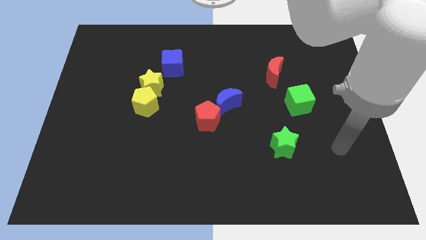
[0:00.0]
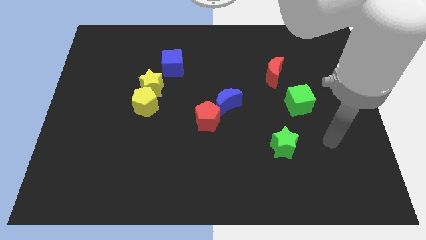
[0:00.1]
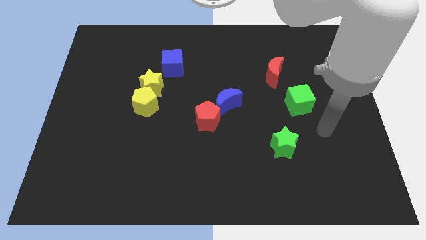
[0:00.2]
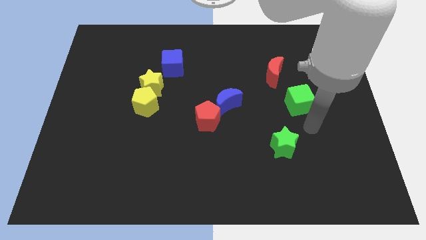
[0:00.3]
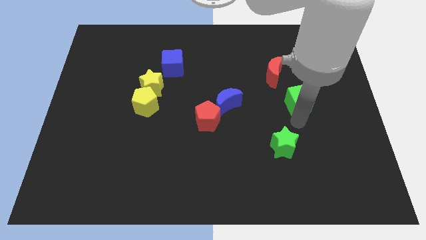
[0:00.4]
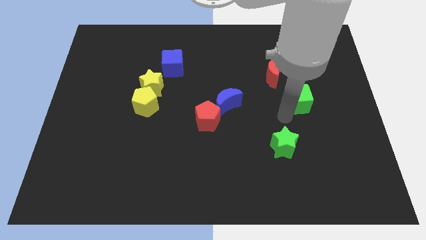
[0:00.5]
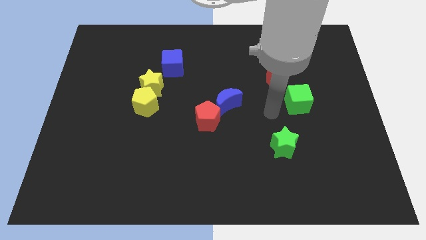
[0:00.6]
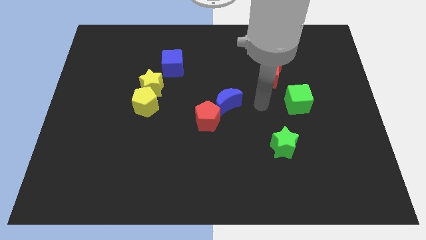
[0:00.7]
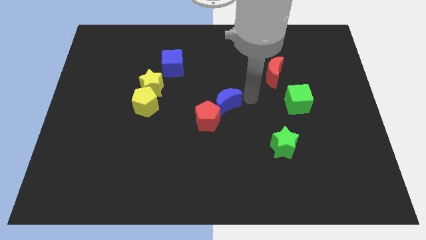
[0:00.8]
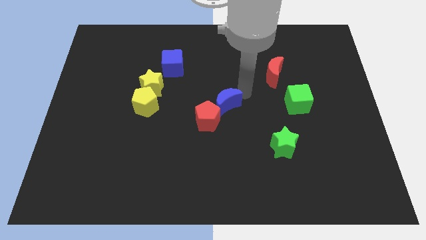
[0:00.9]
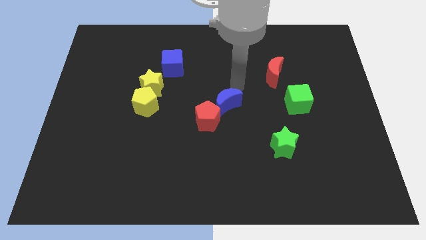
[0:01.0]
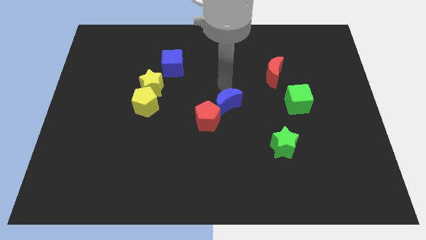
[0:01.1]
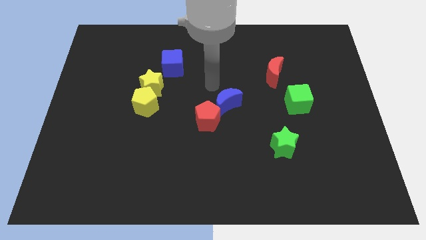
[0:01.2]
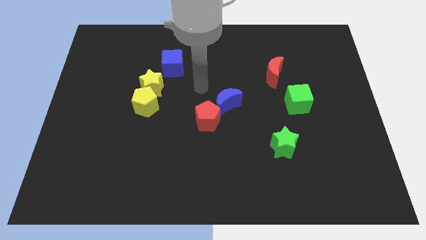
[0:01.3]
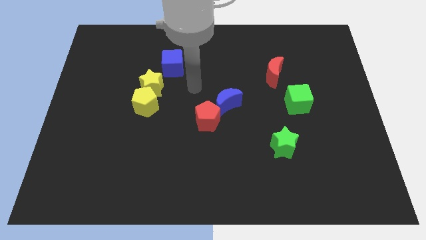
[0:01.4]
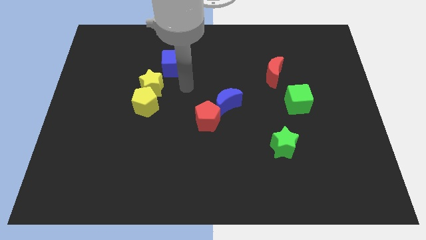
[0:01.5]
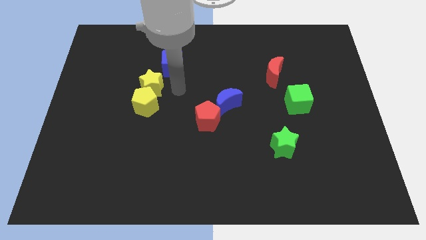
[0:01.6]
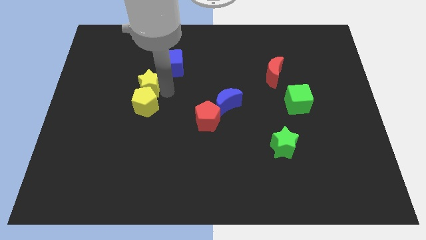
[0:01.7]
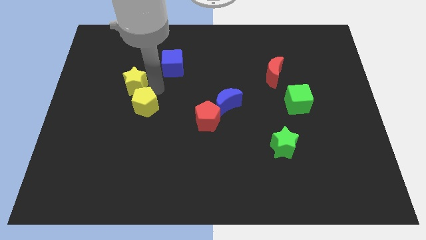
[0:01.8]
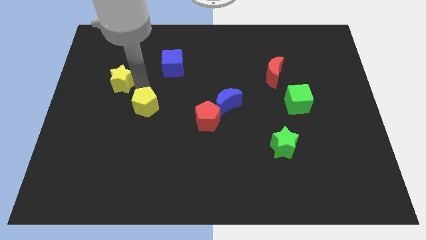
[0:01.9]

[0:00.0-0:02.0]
move the yellow pentagon away from the yellow star

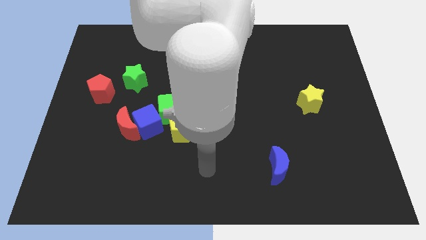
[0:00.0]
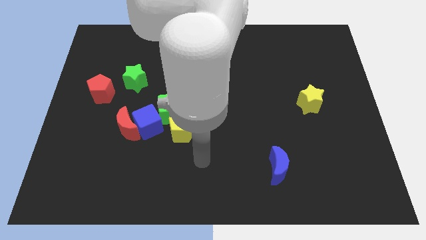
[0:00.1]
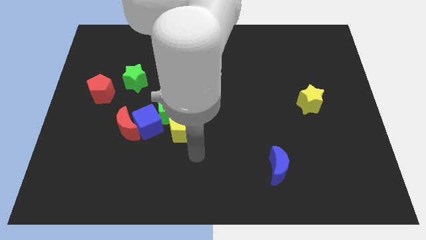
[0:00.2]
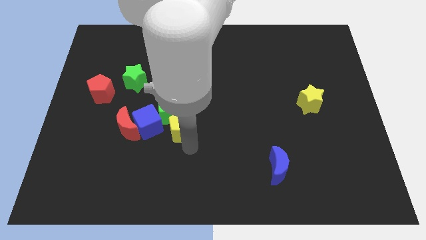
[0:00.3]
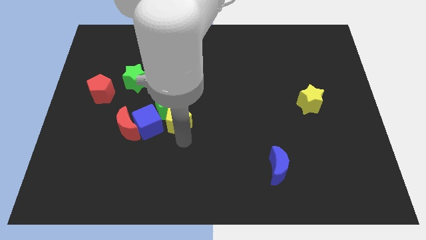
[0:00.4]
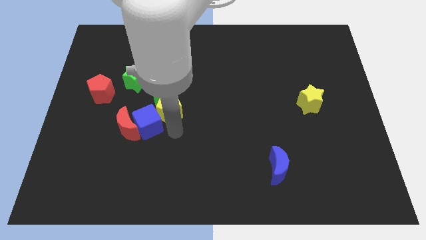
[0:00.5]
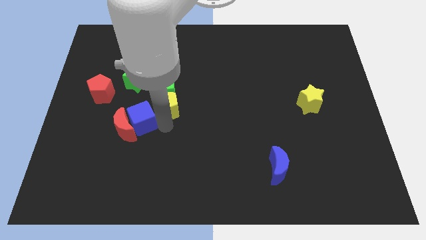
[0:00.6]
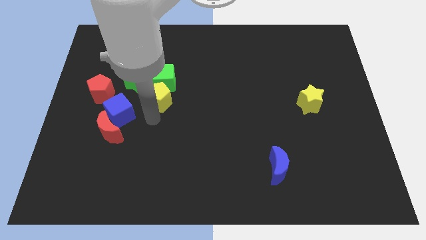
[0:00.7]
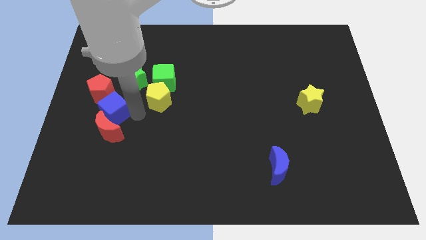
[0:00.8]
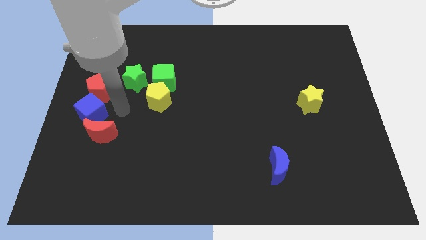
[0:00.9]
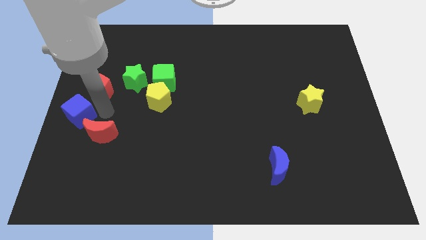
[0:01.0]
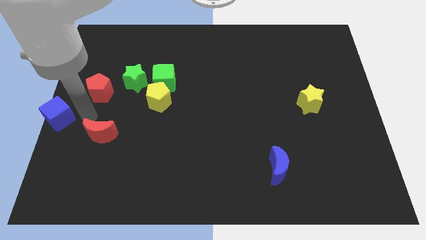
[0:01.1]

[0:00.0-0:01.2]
pull the red moon apart from the blue cube

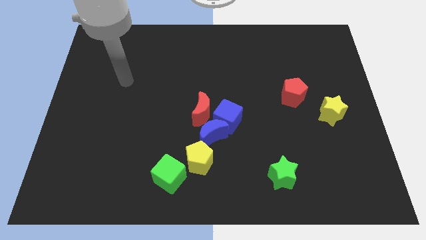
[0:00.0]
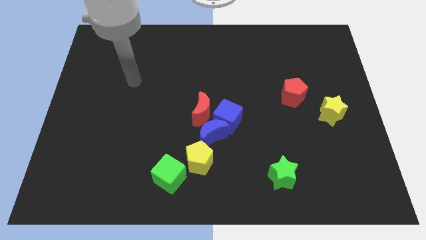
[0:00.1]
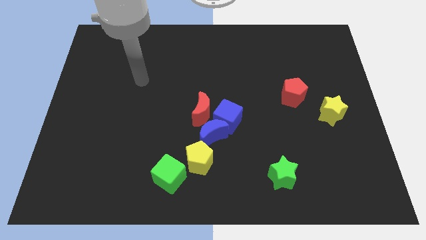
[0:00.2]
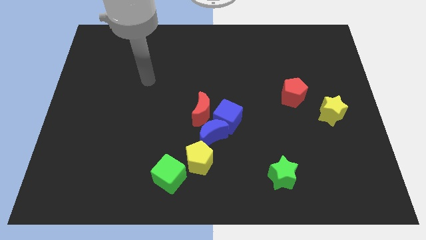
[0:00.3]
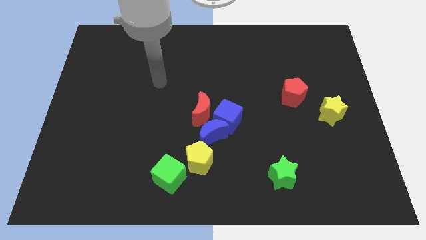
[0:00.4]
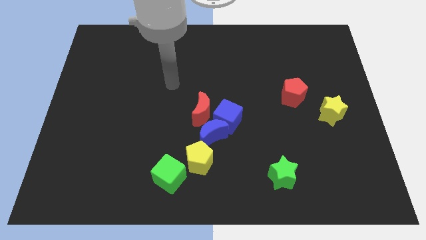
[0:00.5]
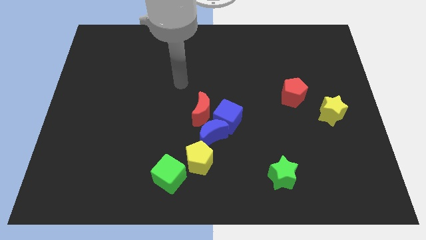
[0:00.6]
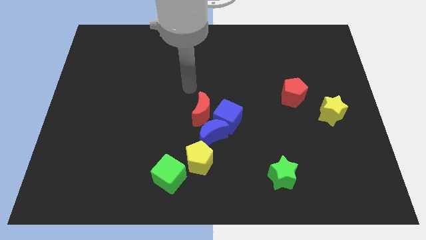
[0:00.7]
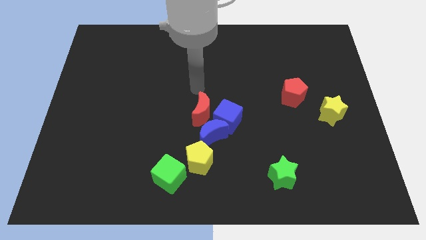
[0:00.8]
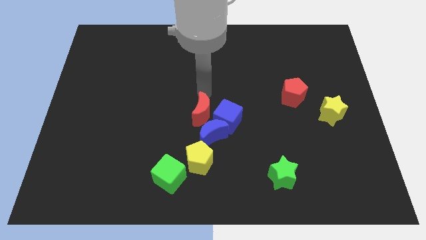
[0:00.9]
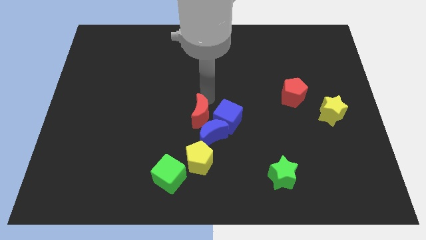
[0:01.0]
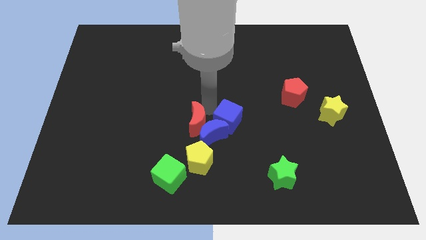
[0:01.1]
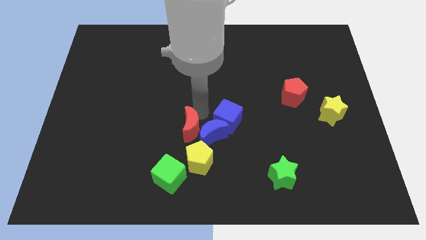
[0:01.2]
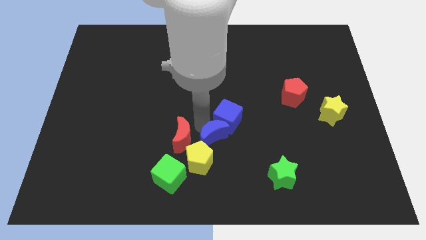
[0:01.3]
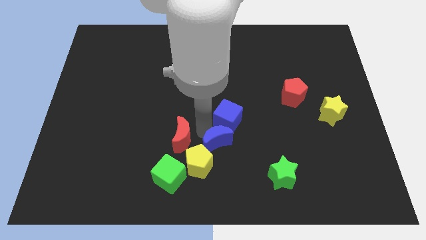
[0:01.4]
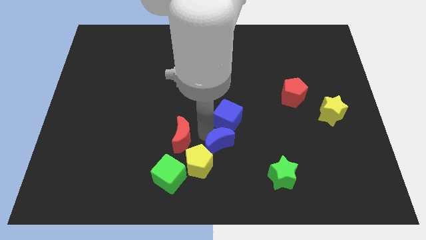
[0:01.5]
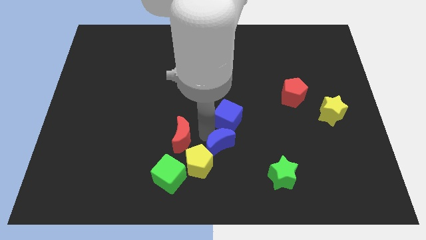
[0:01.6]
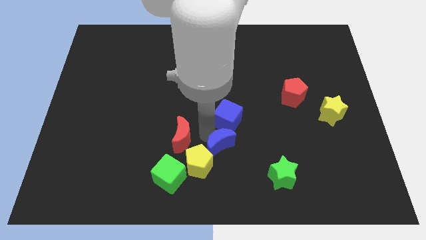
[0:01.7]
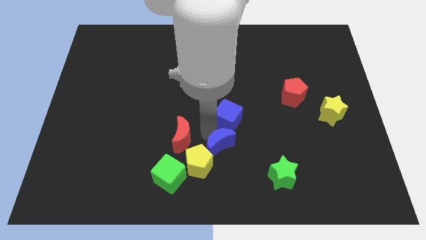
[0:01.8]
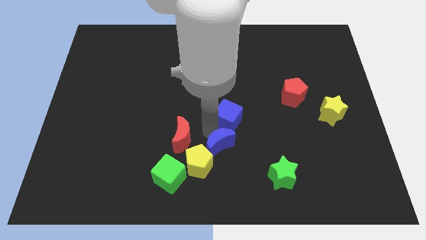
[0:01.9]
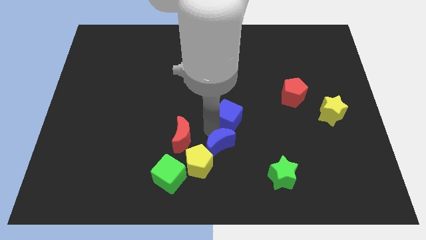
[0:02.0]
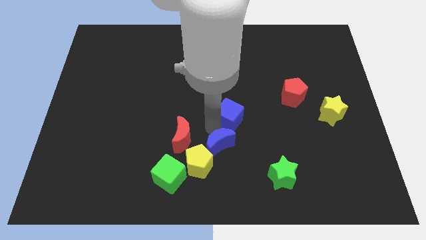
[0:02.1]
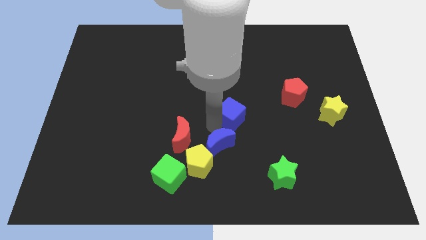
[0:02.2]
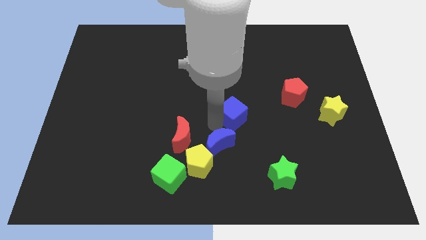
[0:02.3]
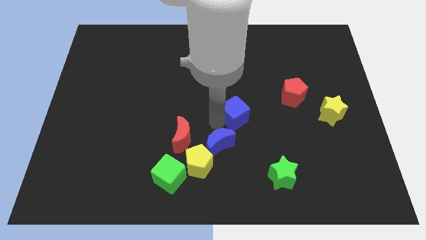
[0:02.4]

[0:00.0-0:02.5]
separate the blue cube from the blue moon and red moon

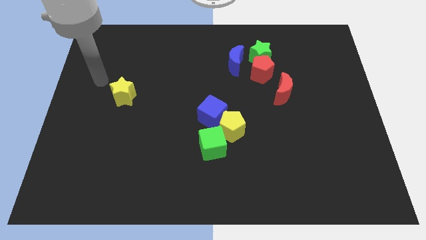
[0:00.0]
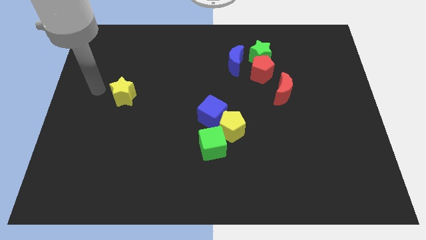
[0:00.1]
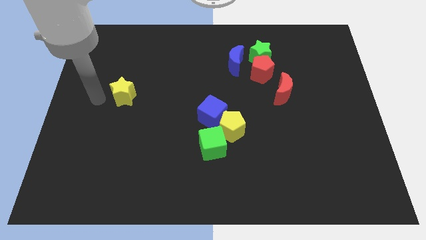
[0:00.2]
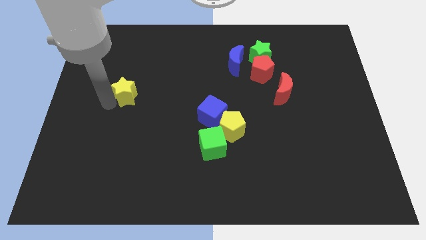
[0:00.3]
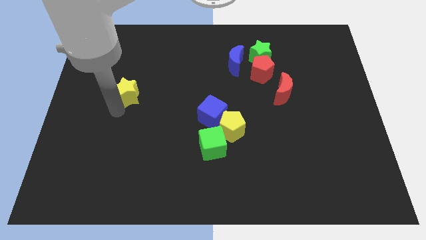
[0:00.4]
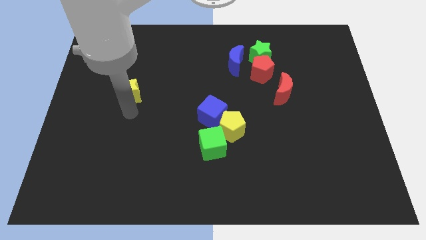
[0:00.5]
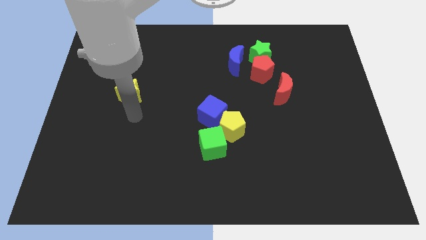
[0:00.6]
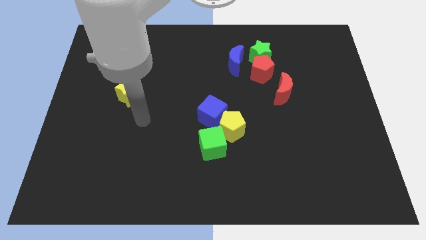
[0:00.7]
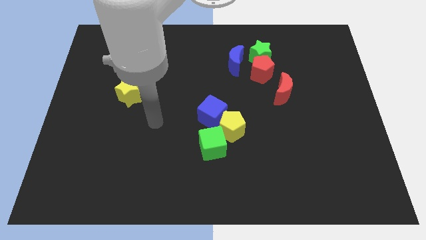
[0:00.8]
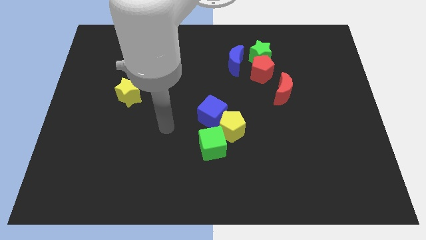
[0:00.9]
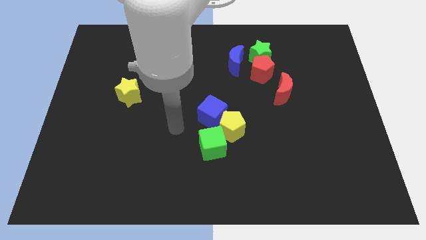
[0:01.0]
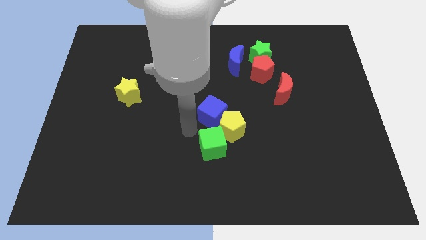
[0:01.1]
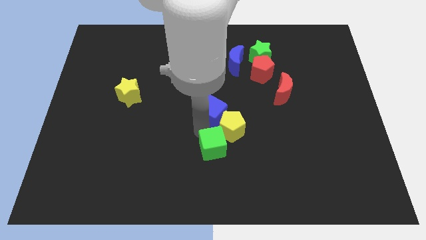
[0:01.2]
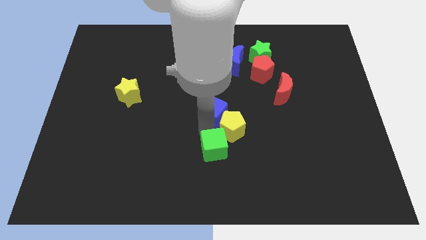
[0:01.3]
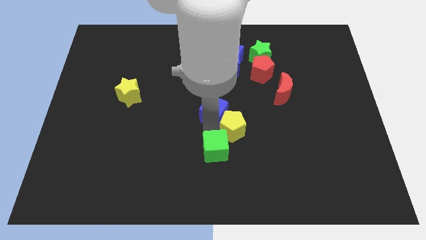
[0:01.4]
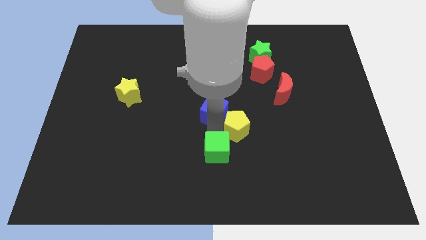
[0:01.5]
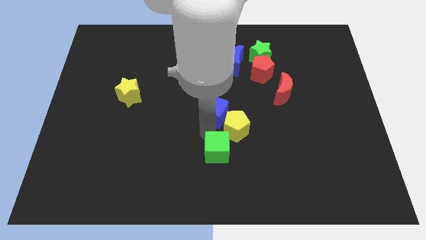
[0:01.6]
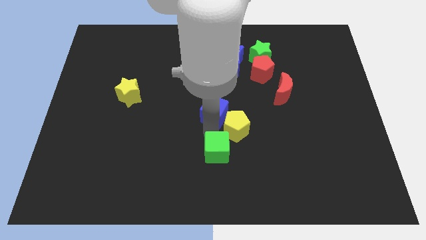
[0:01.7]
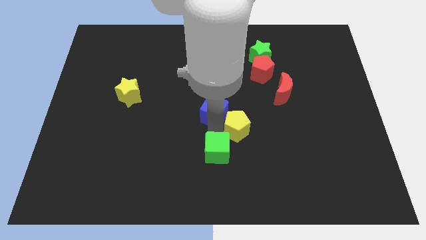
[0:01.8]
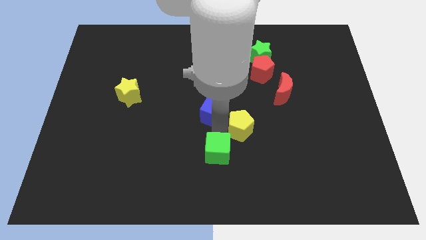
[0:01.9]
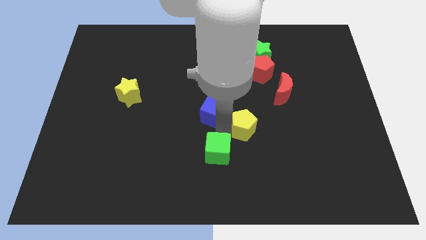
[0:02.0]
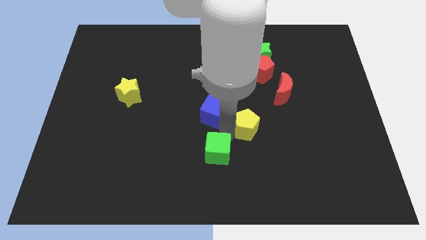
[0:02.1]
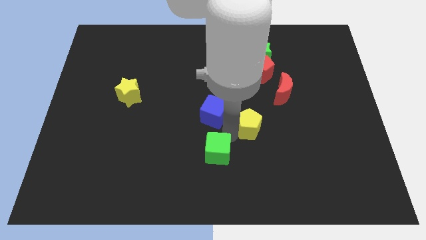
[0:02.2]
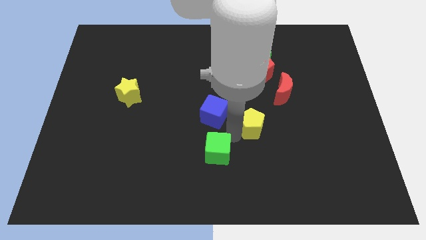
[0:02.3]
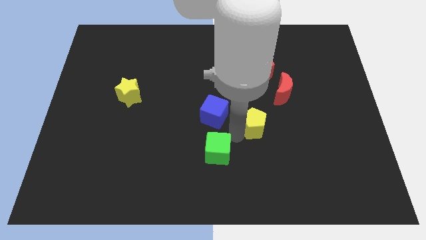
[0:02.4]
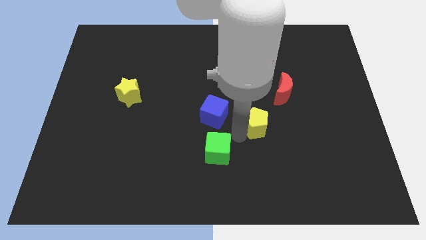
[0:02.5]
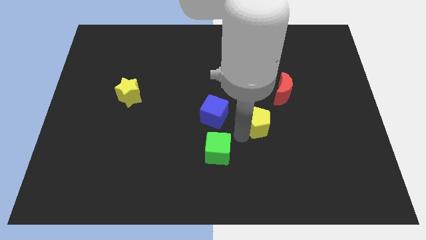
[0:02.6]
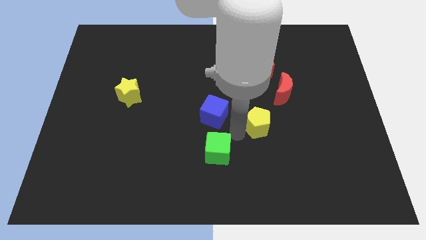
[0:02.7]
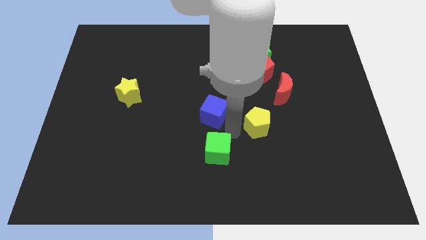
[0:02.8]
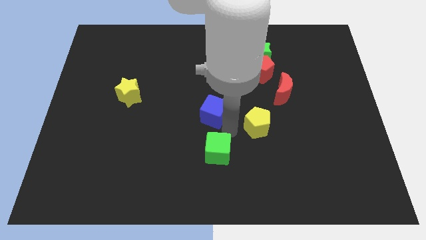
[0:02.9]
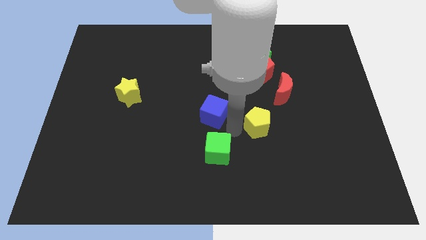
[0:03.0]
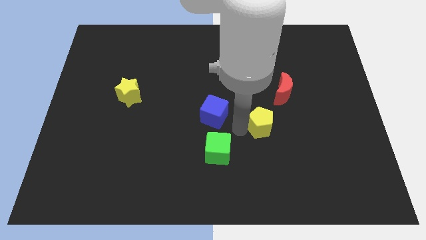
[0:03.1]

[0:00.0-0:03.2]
separate the yellow pentagon from the blue cube and green cube

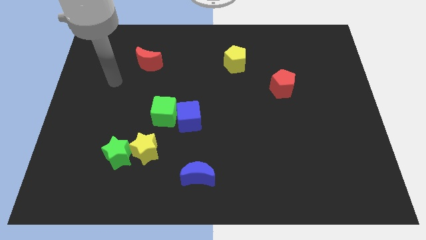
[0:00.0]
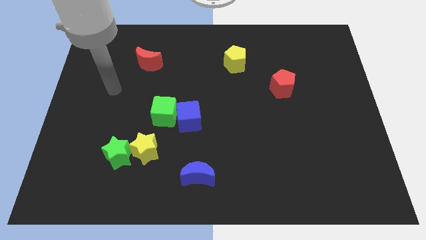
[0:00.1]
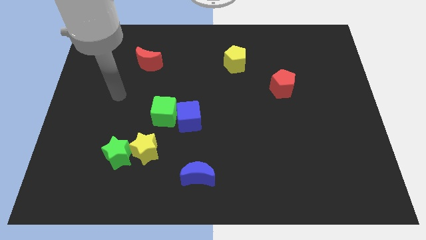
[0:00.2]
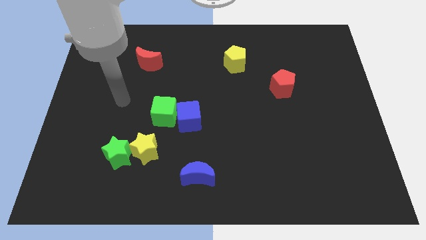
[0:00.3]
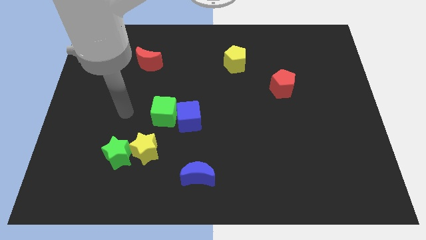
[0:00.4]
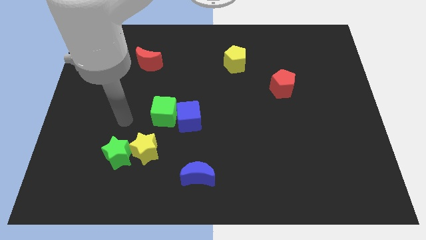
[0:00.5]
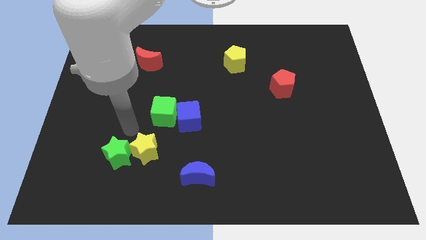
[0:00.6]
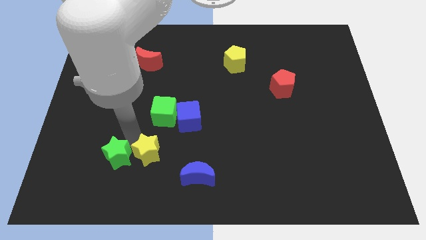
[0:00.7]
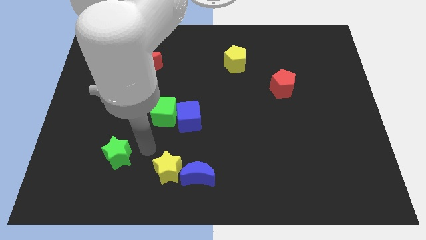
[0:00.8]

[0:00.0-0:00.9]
separate the green star from the yellow star
